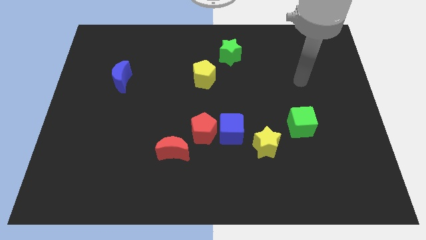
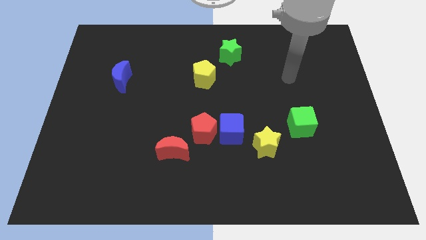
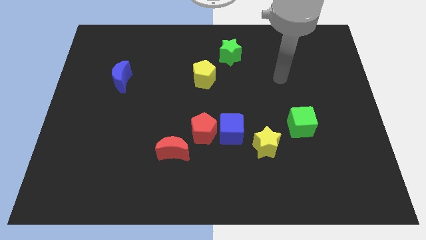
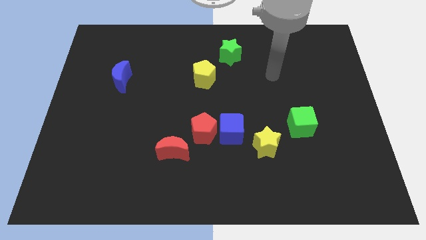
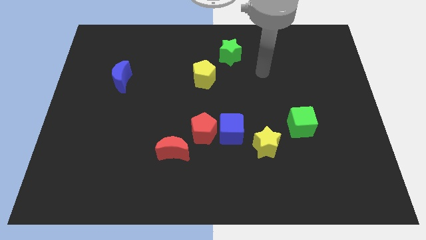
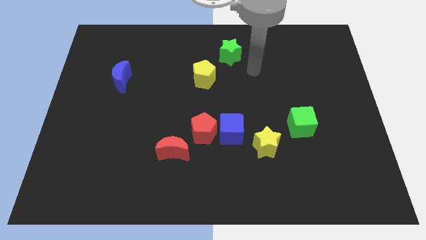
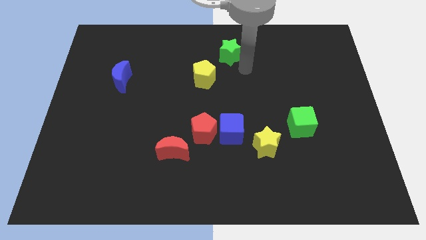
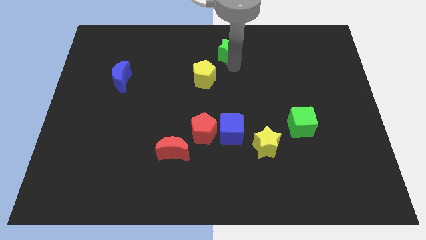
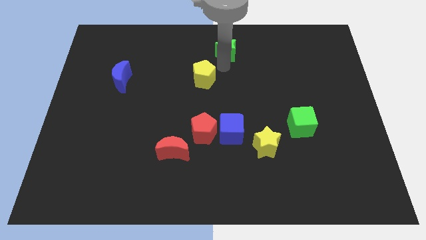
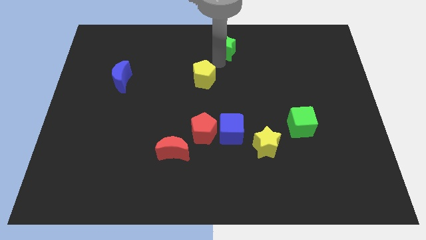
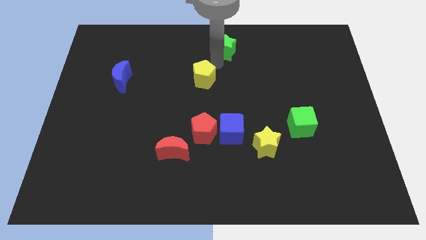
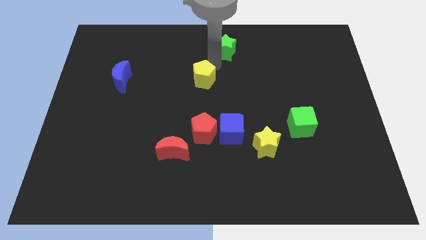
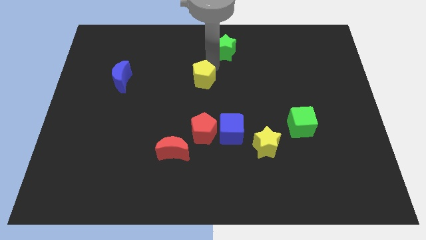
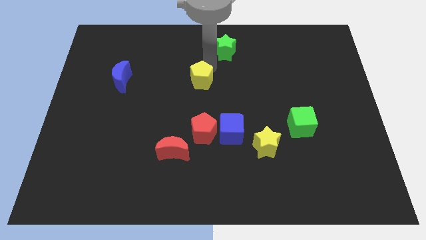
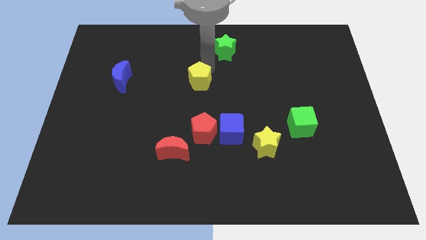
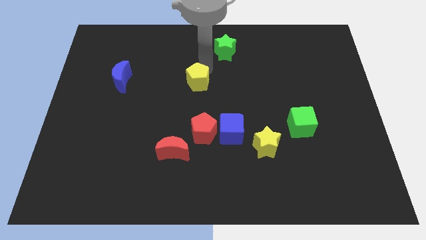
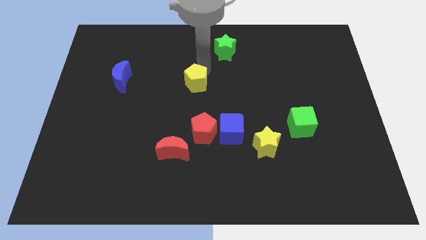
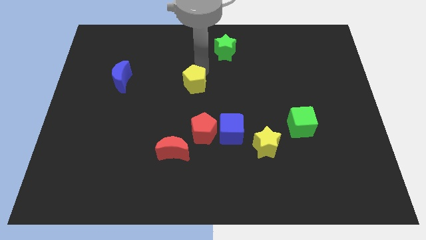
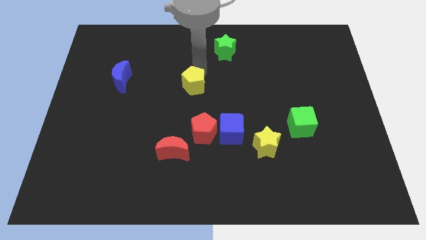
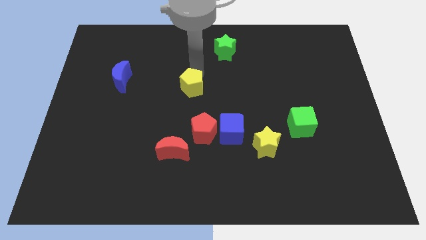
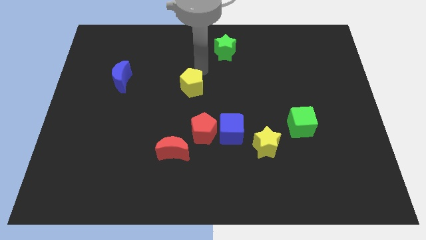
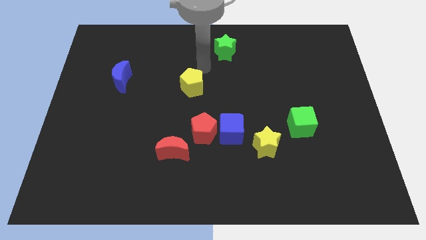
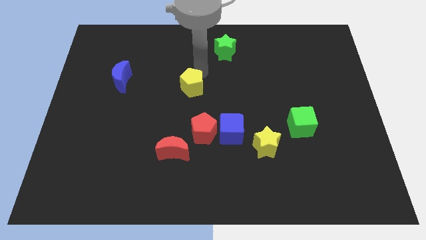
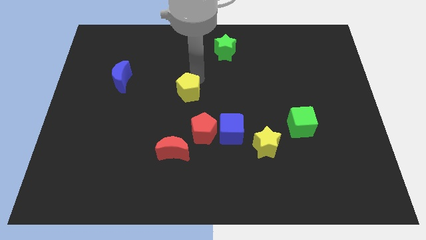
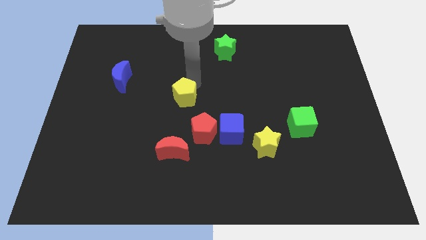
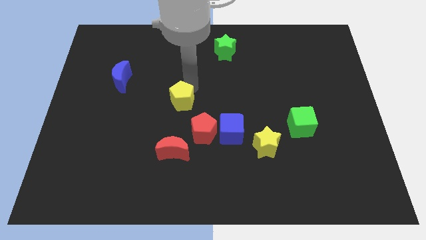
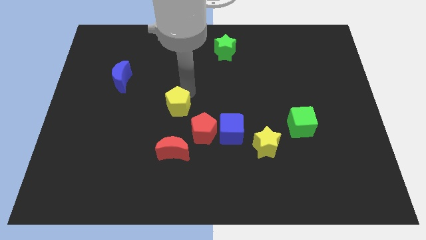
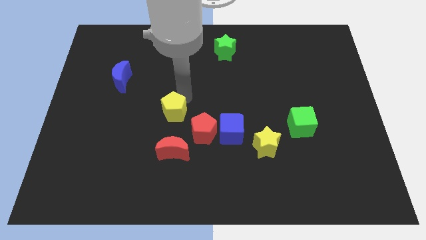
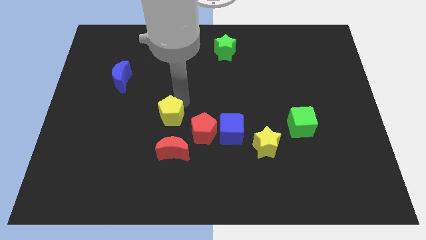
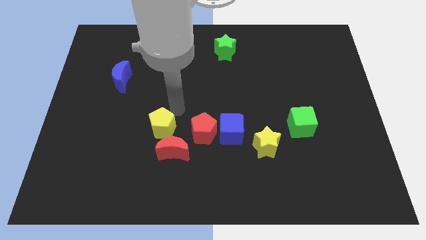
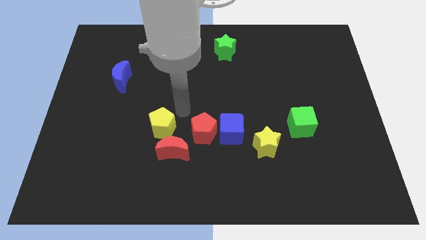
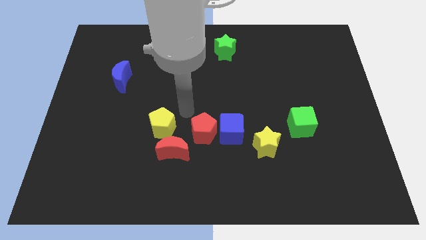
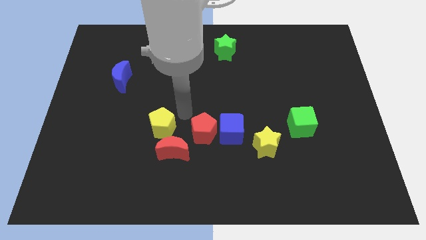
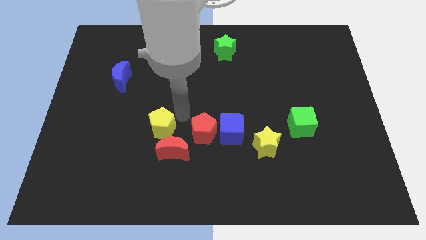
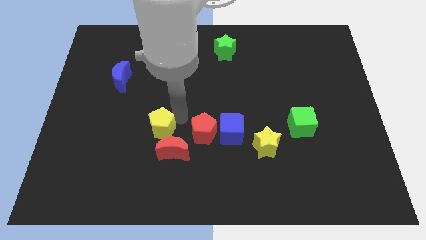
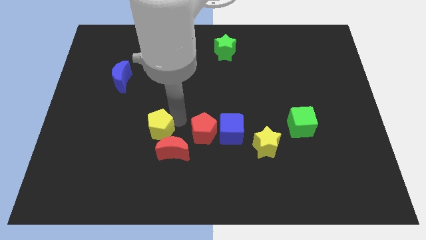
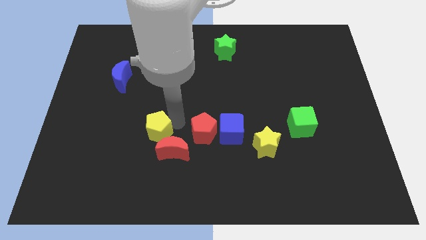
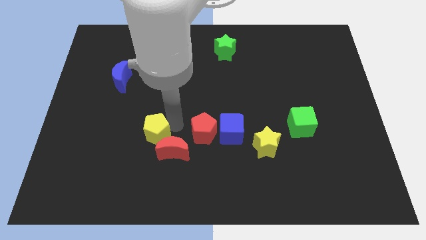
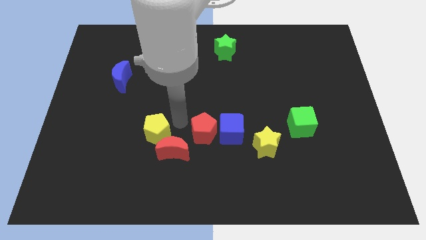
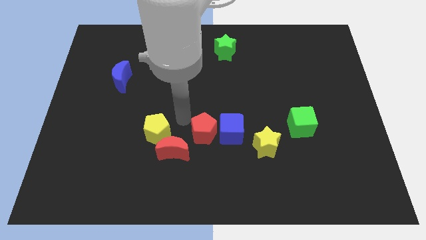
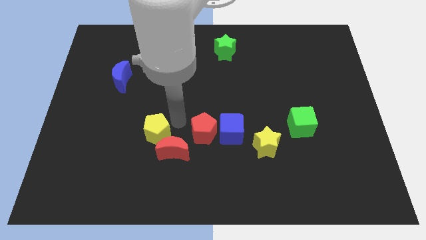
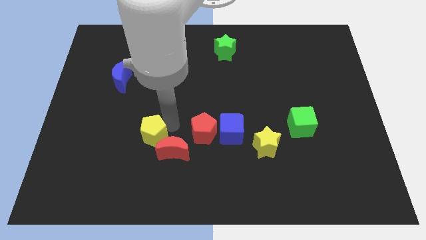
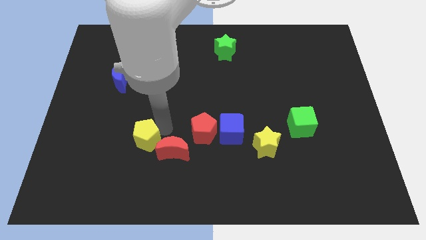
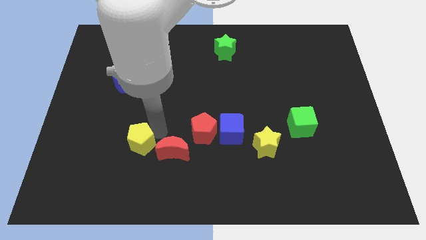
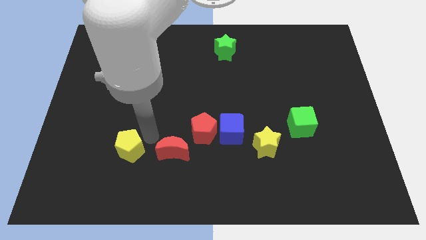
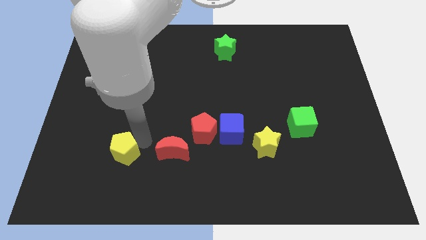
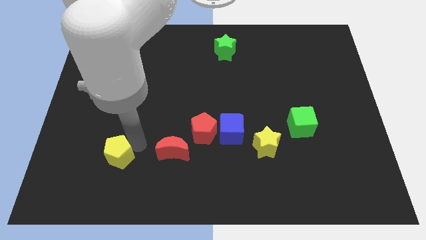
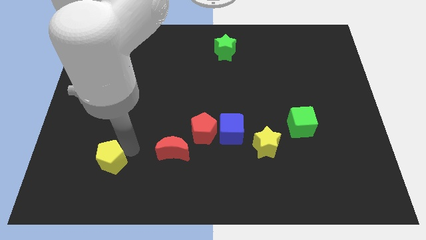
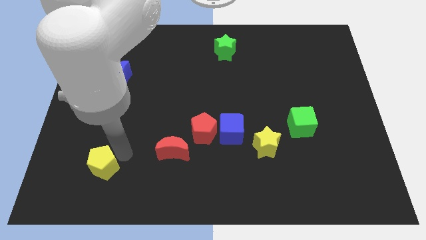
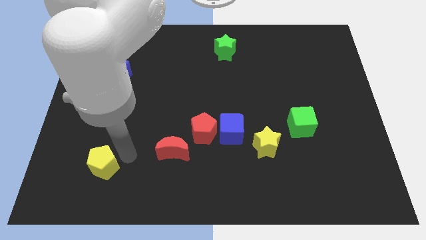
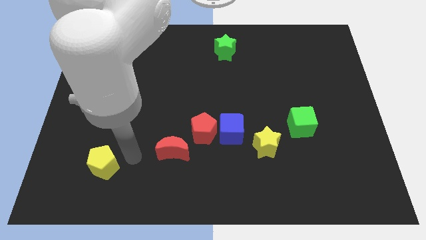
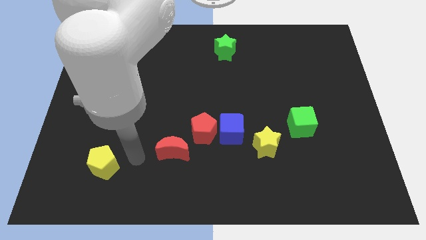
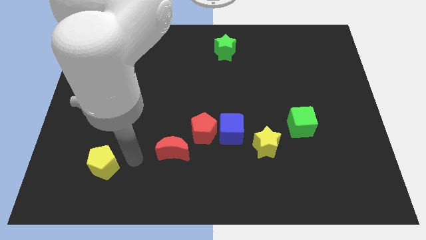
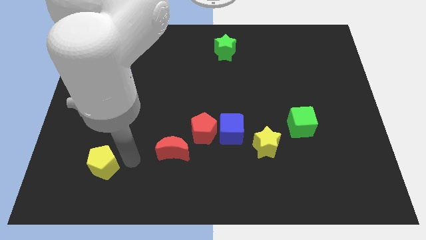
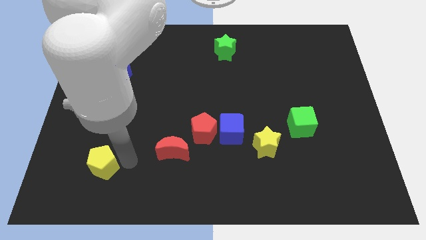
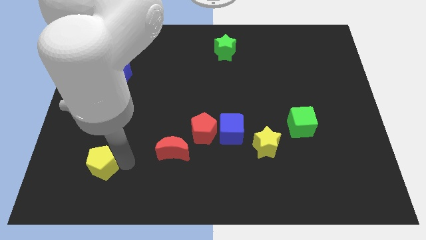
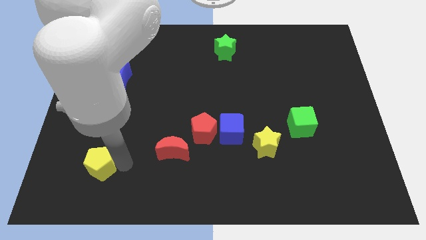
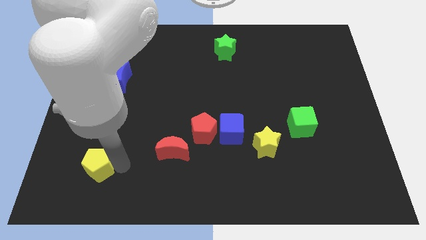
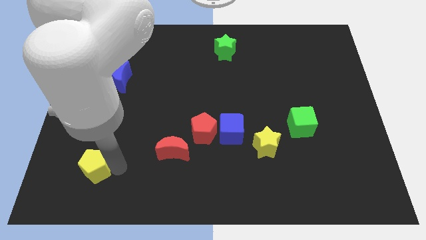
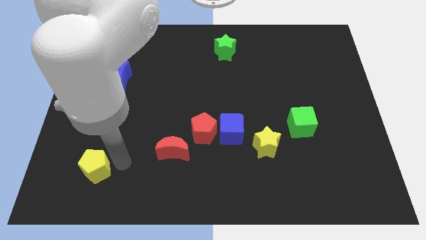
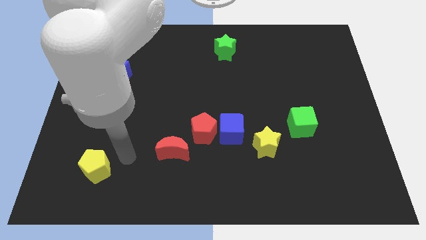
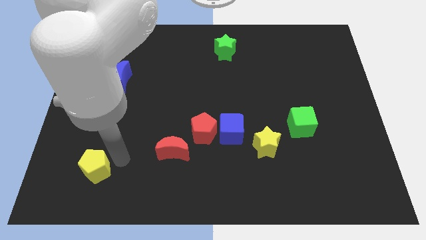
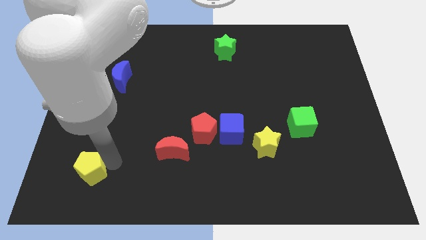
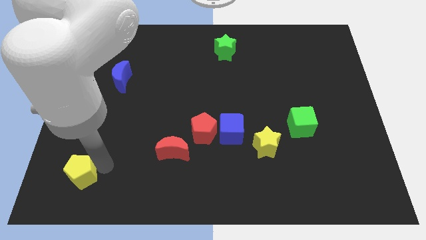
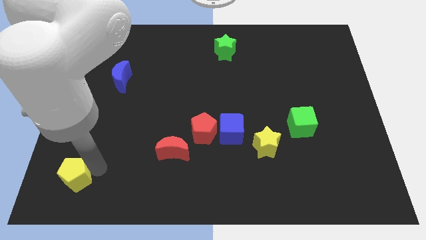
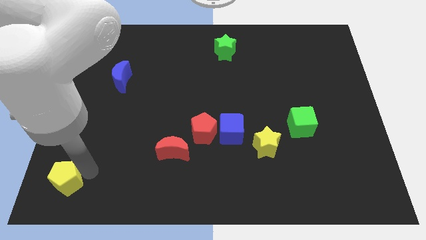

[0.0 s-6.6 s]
move the yellow pentagon to the bottom left of the board
